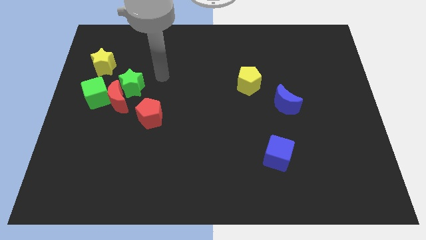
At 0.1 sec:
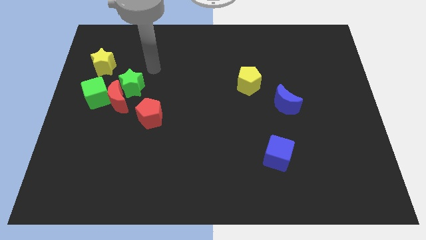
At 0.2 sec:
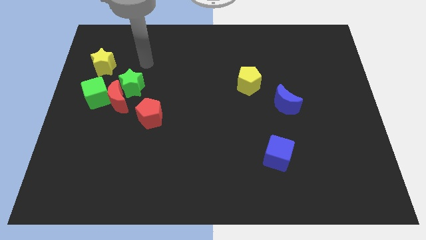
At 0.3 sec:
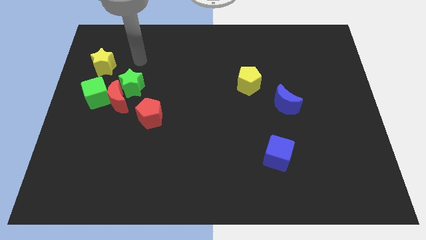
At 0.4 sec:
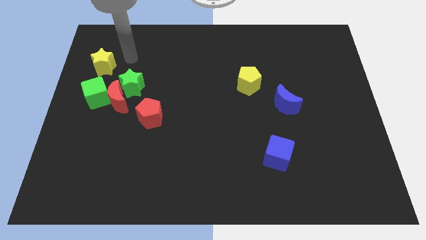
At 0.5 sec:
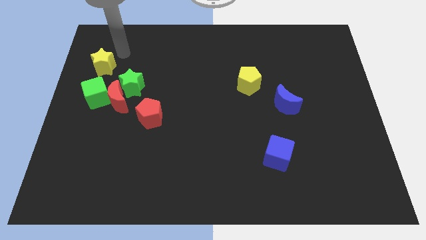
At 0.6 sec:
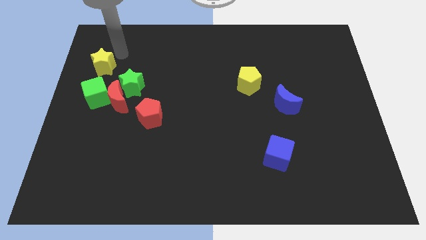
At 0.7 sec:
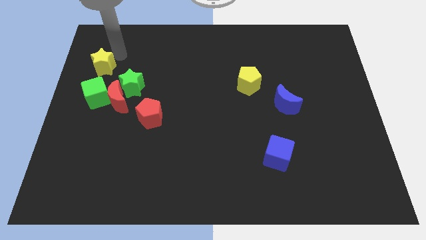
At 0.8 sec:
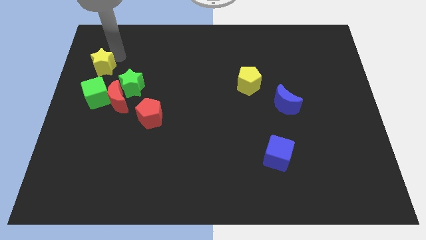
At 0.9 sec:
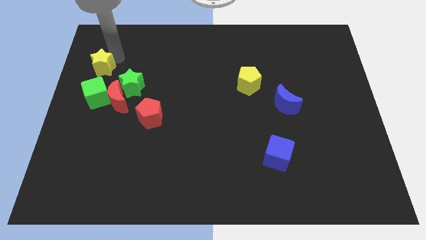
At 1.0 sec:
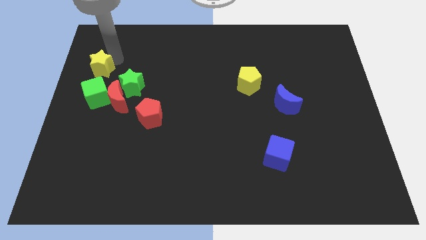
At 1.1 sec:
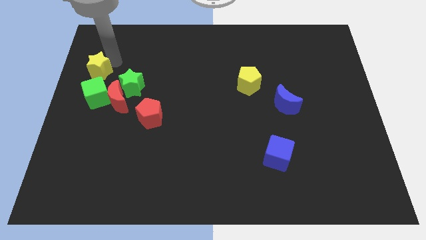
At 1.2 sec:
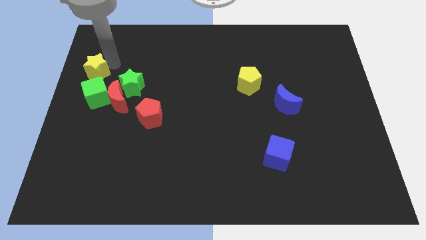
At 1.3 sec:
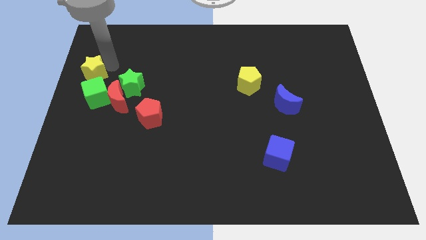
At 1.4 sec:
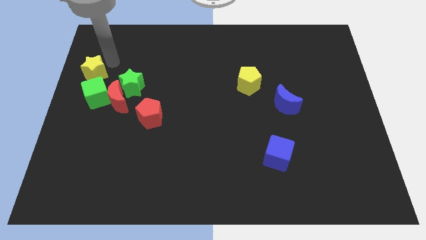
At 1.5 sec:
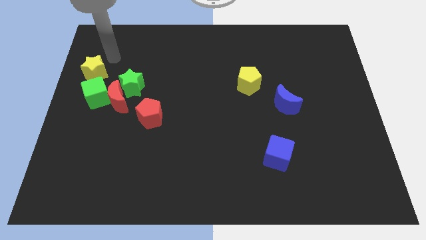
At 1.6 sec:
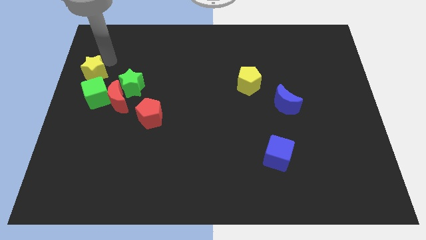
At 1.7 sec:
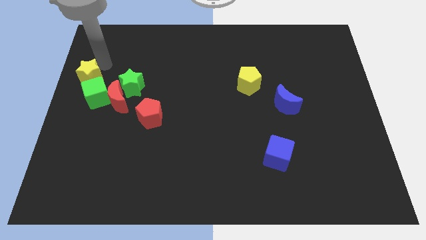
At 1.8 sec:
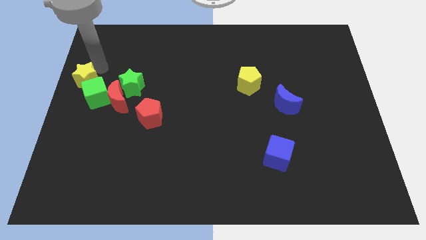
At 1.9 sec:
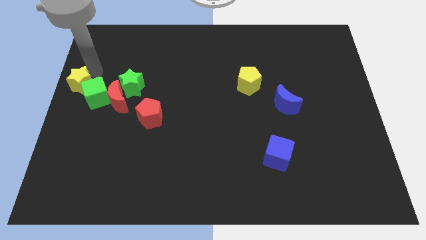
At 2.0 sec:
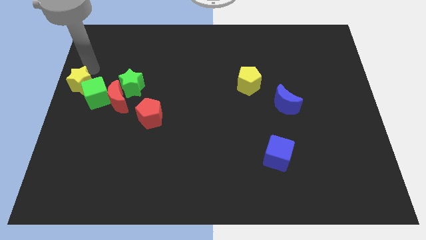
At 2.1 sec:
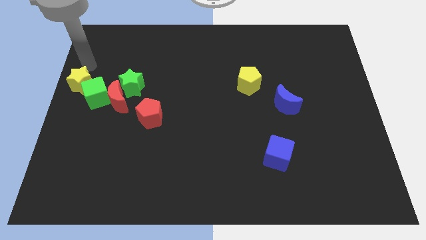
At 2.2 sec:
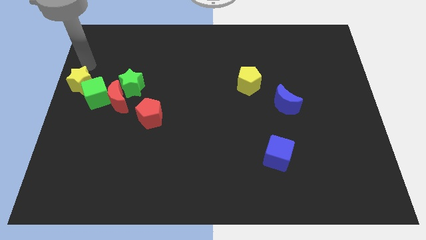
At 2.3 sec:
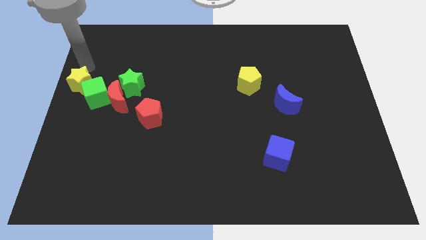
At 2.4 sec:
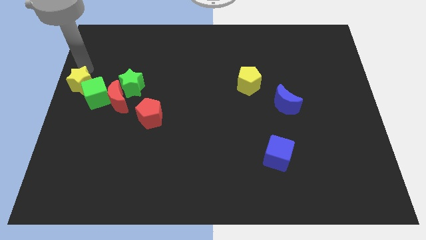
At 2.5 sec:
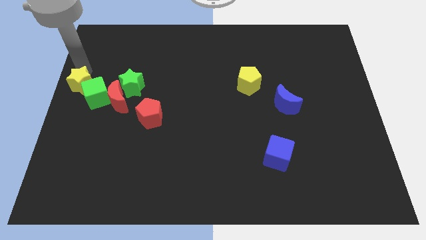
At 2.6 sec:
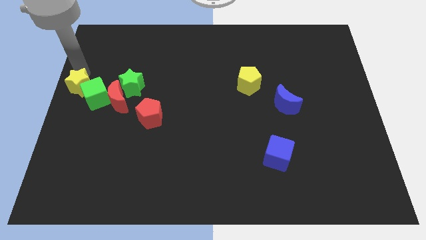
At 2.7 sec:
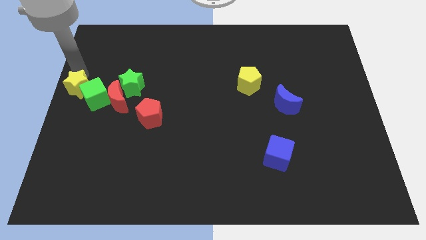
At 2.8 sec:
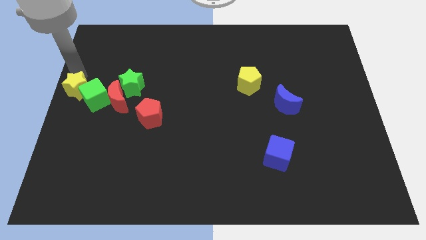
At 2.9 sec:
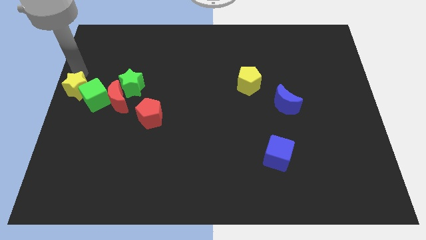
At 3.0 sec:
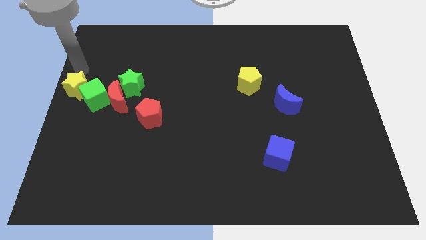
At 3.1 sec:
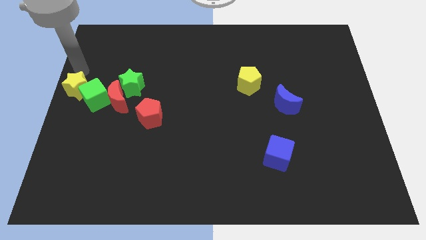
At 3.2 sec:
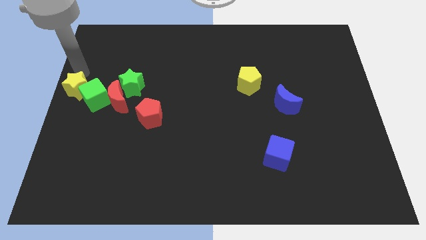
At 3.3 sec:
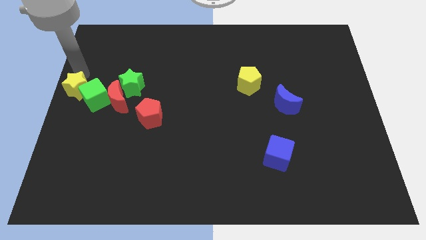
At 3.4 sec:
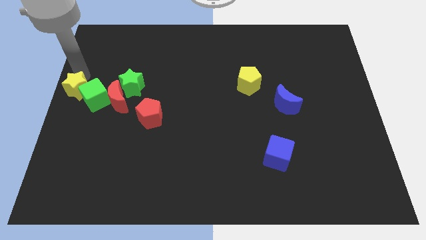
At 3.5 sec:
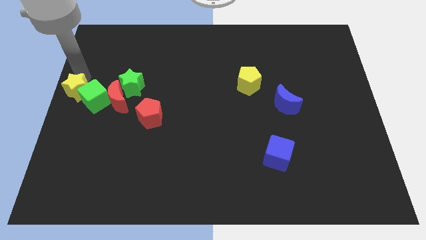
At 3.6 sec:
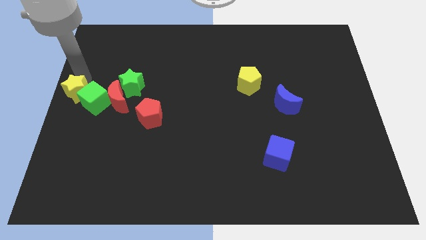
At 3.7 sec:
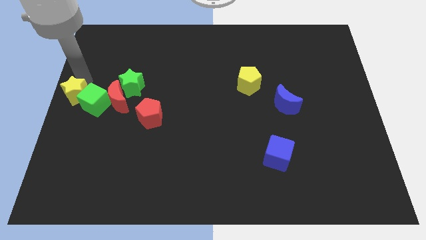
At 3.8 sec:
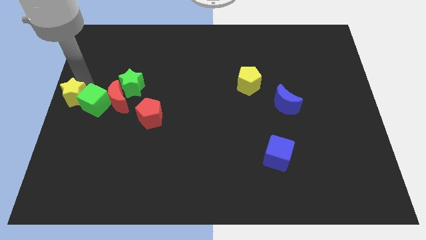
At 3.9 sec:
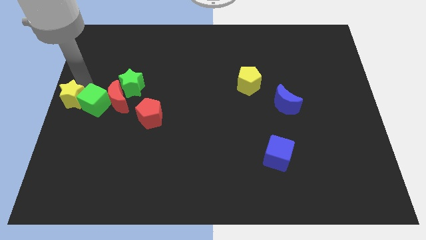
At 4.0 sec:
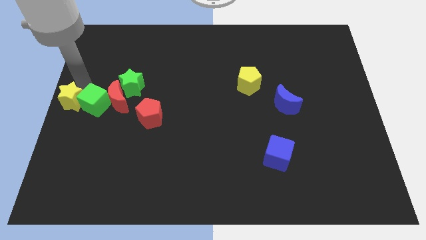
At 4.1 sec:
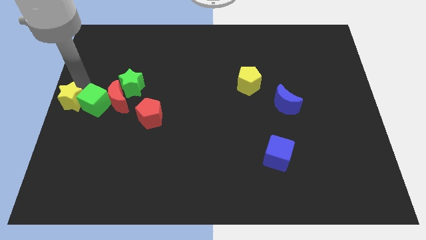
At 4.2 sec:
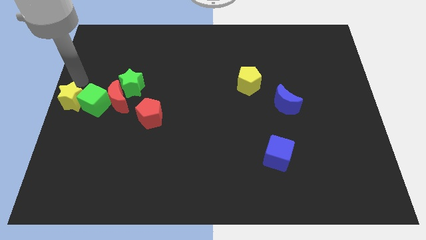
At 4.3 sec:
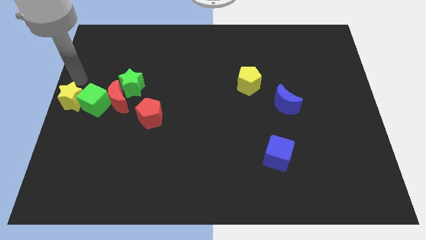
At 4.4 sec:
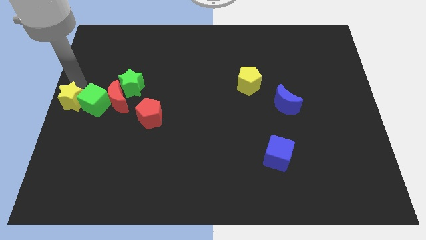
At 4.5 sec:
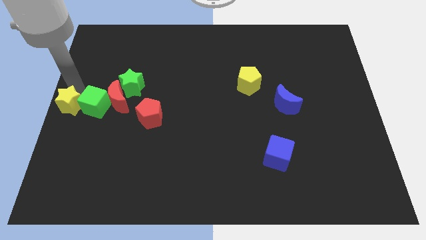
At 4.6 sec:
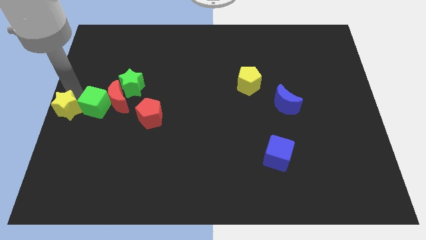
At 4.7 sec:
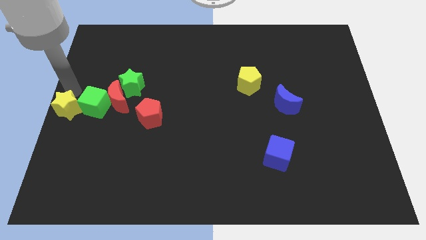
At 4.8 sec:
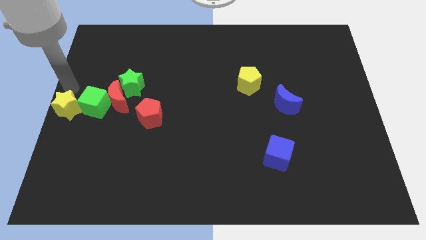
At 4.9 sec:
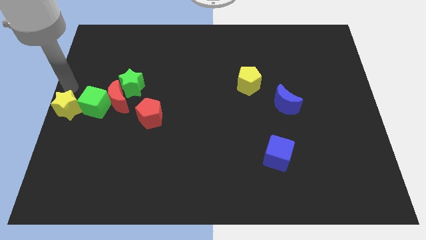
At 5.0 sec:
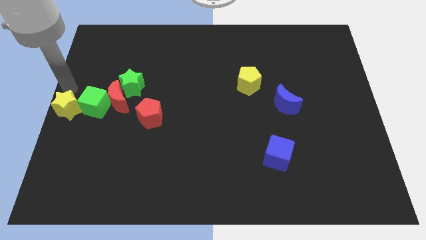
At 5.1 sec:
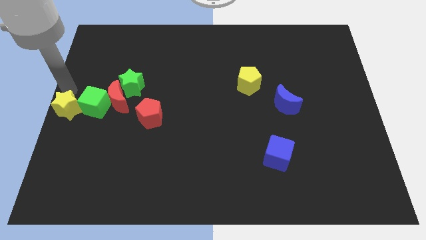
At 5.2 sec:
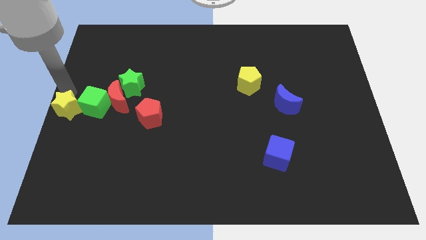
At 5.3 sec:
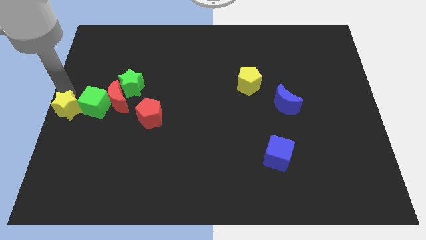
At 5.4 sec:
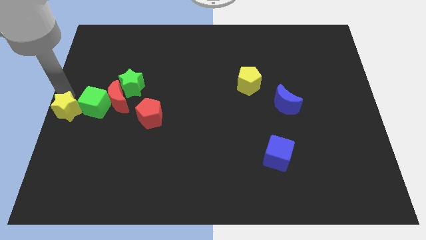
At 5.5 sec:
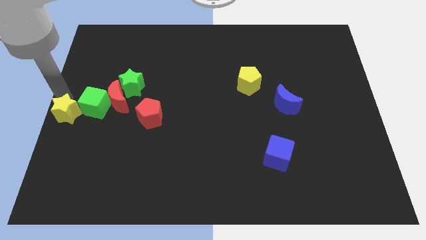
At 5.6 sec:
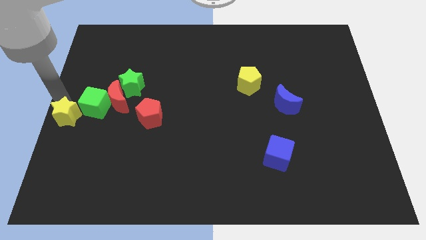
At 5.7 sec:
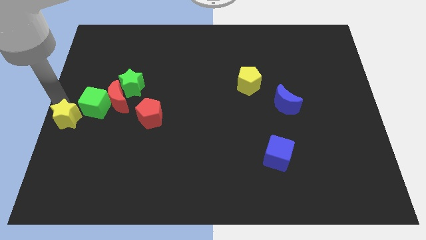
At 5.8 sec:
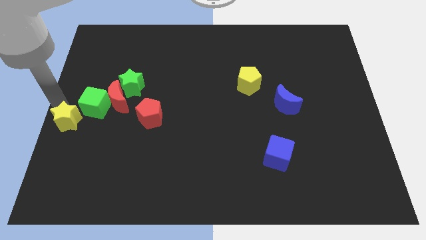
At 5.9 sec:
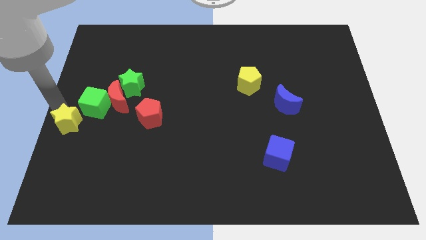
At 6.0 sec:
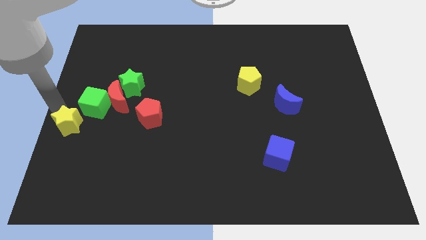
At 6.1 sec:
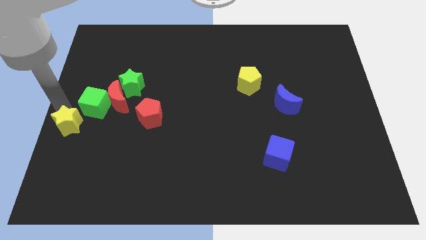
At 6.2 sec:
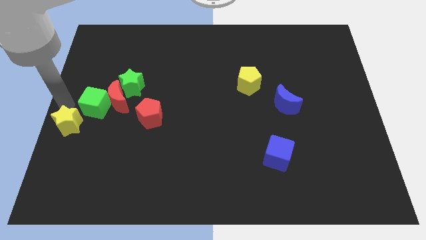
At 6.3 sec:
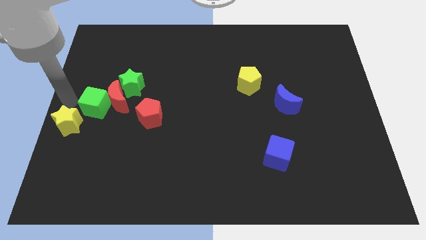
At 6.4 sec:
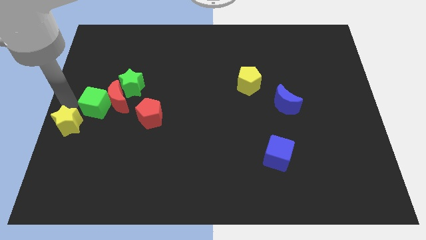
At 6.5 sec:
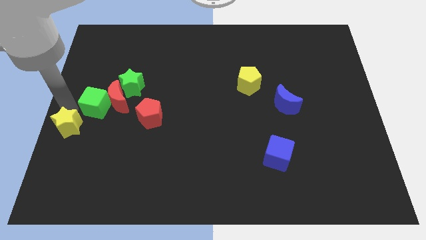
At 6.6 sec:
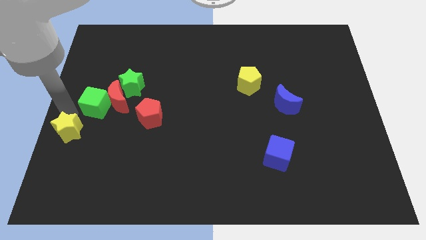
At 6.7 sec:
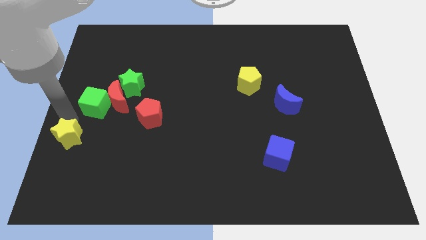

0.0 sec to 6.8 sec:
move the yellow star down

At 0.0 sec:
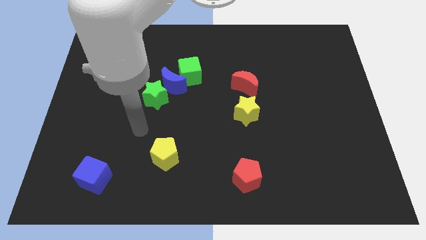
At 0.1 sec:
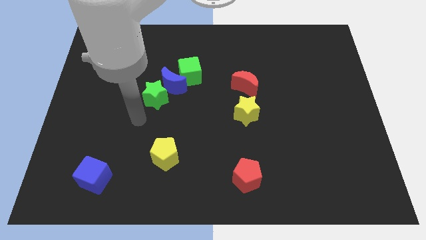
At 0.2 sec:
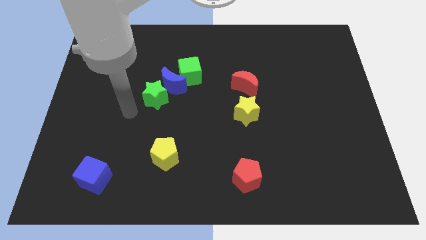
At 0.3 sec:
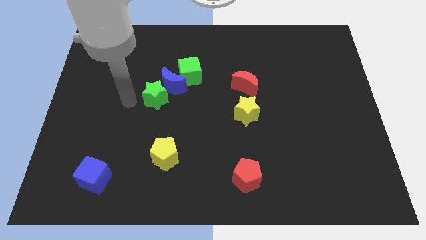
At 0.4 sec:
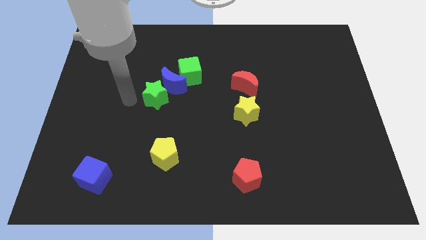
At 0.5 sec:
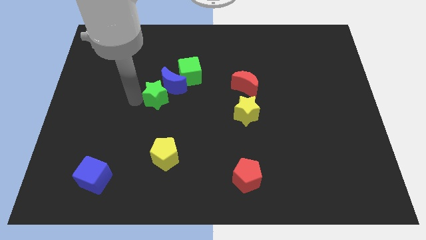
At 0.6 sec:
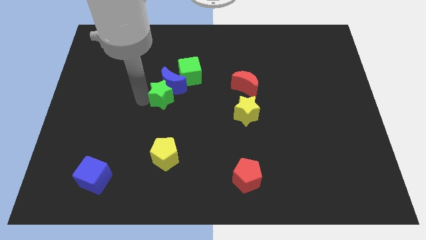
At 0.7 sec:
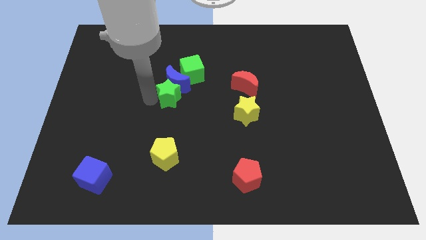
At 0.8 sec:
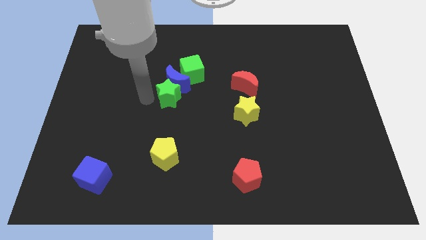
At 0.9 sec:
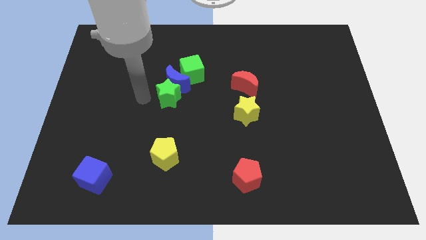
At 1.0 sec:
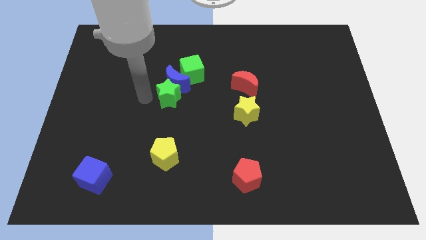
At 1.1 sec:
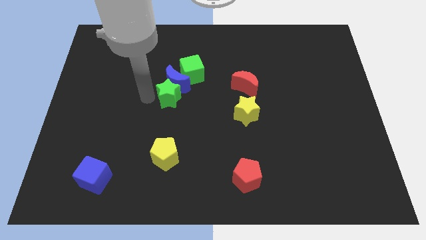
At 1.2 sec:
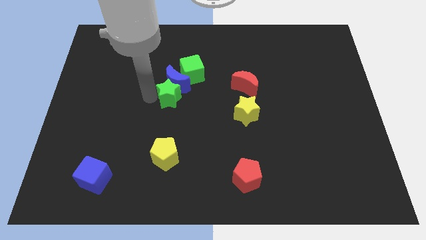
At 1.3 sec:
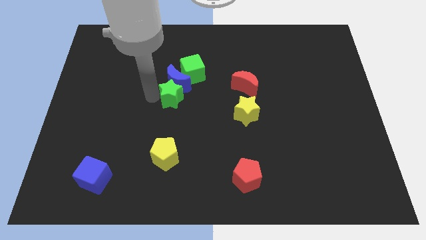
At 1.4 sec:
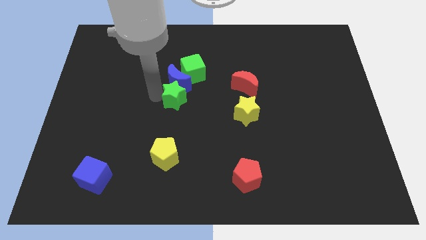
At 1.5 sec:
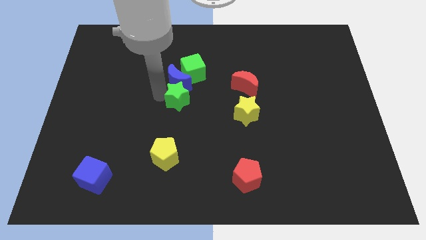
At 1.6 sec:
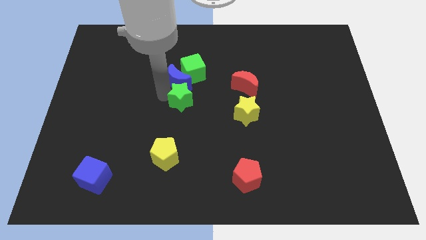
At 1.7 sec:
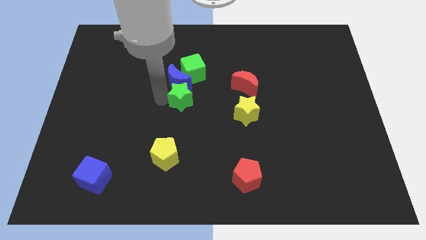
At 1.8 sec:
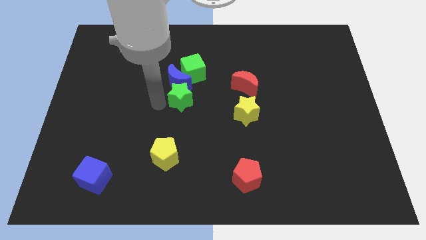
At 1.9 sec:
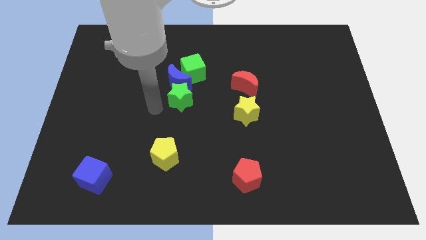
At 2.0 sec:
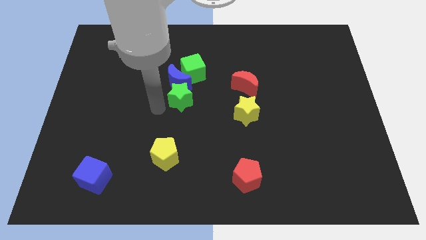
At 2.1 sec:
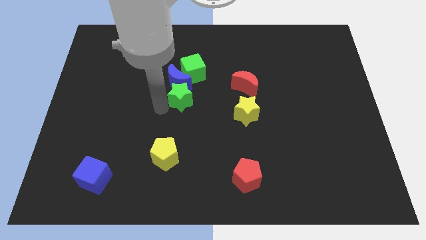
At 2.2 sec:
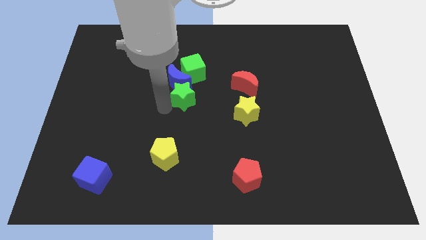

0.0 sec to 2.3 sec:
push the green star right a little bit
